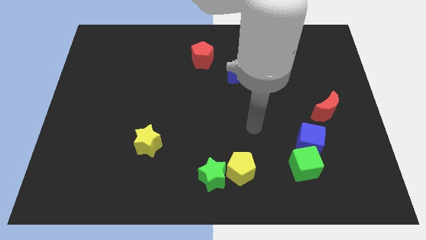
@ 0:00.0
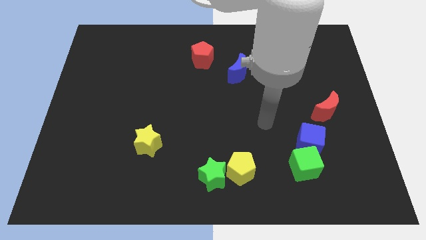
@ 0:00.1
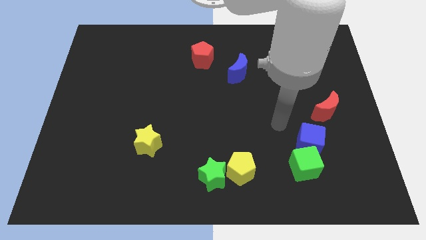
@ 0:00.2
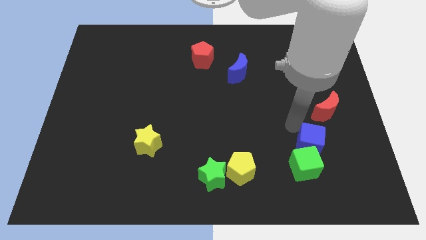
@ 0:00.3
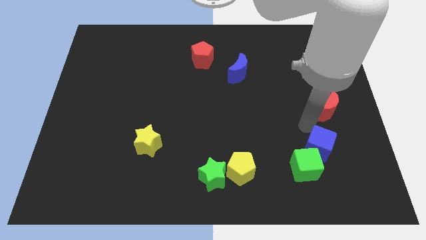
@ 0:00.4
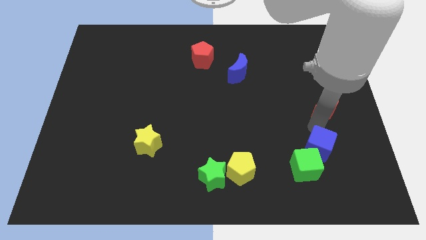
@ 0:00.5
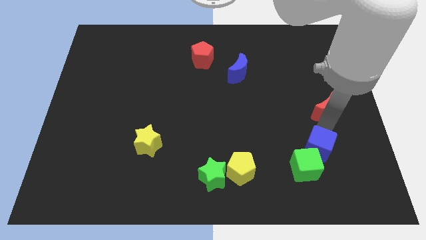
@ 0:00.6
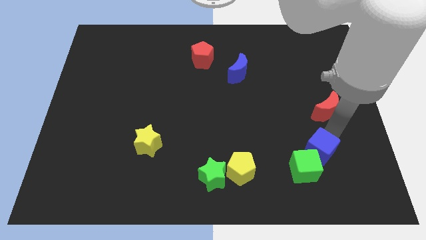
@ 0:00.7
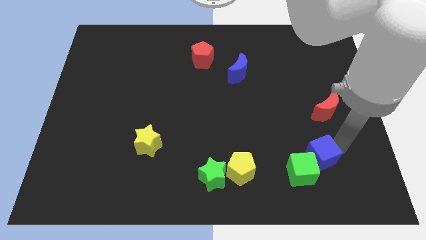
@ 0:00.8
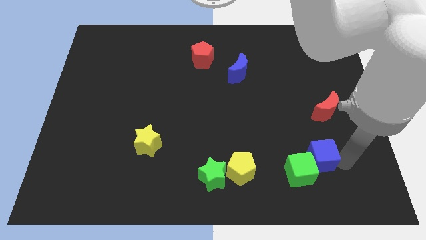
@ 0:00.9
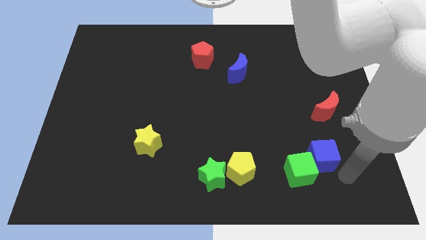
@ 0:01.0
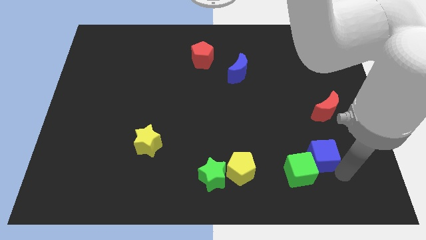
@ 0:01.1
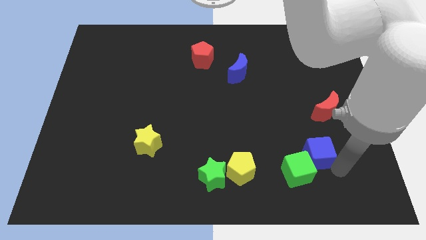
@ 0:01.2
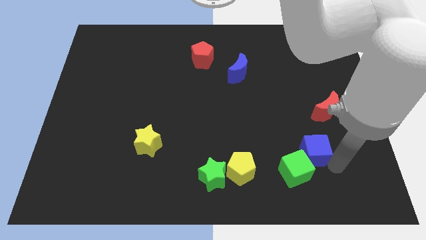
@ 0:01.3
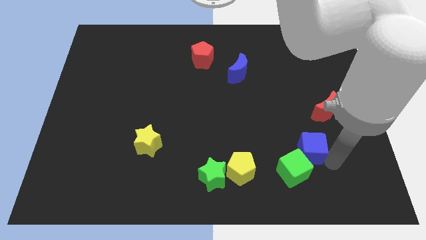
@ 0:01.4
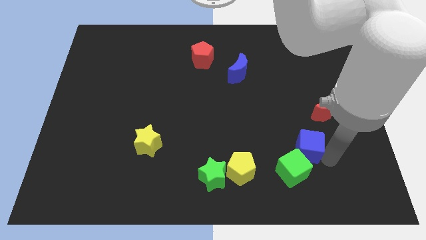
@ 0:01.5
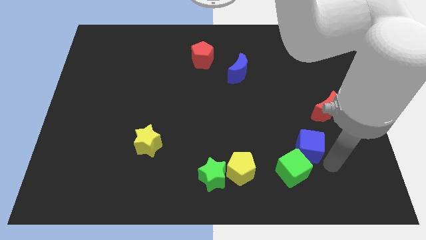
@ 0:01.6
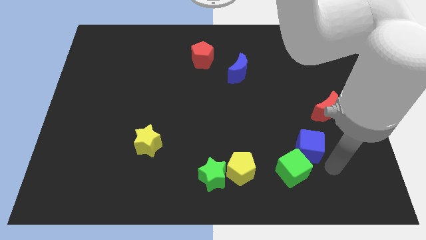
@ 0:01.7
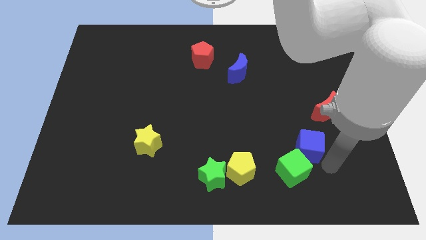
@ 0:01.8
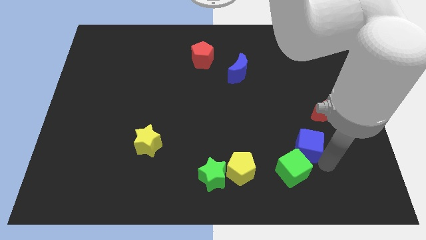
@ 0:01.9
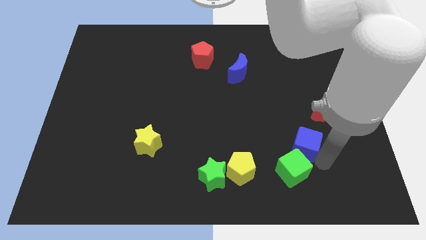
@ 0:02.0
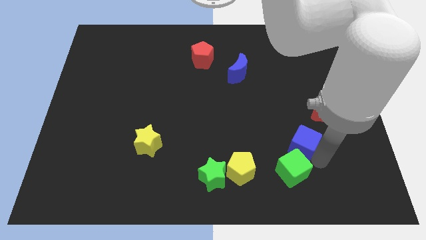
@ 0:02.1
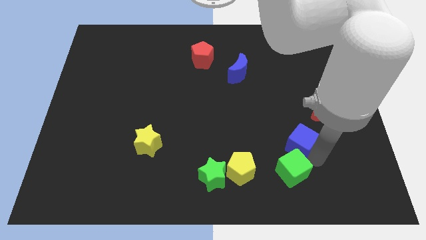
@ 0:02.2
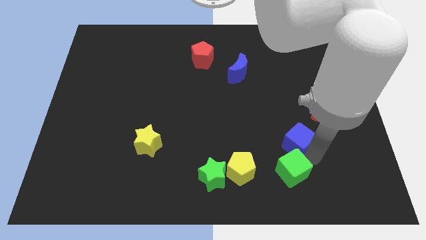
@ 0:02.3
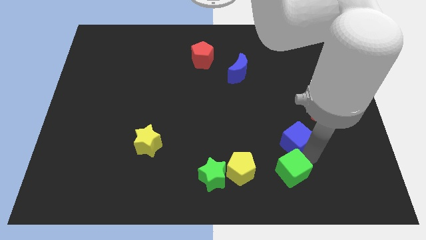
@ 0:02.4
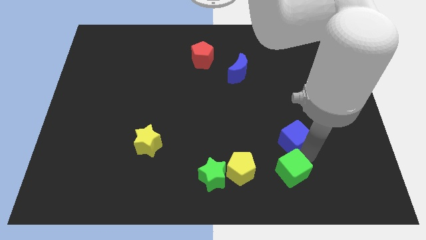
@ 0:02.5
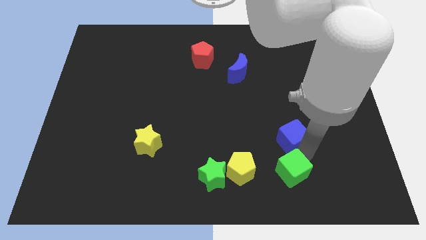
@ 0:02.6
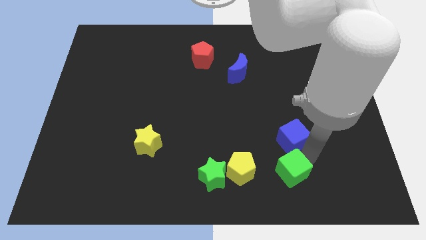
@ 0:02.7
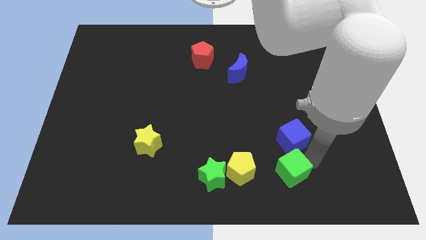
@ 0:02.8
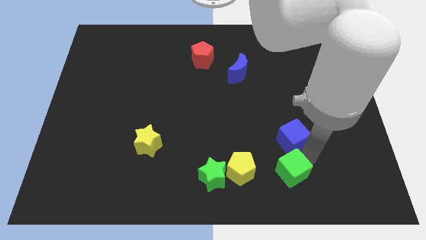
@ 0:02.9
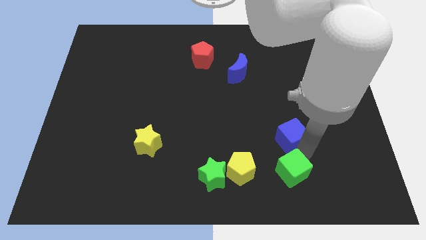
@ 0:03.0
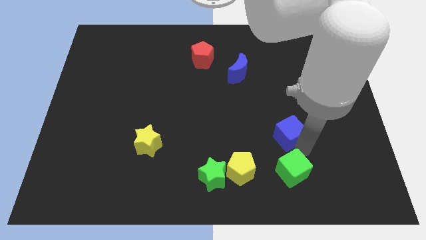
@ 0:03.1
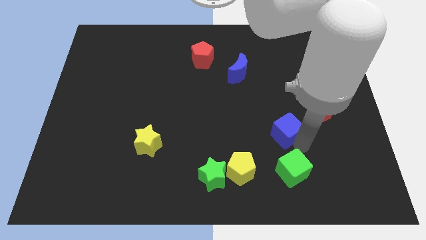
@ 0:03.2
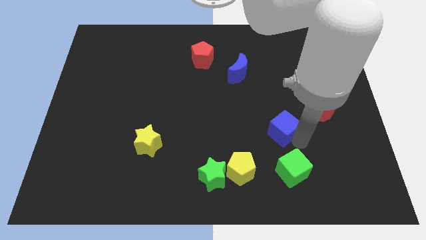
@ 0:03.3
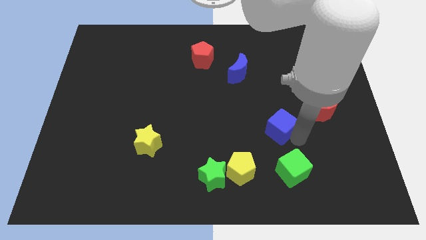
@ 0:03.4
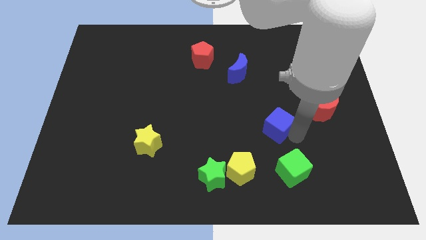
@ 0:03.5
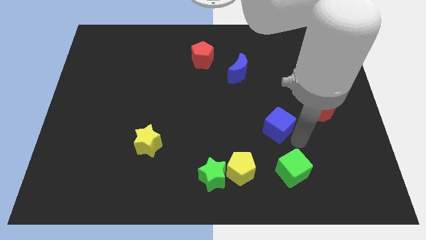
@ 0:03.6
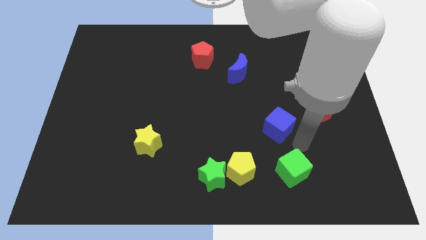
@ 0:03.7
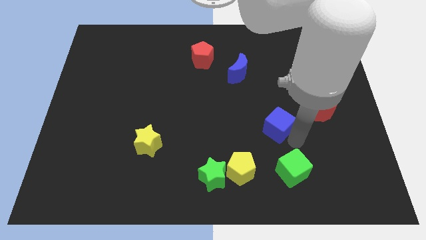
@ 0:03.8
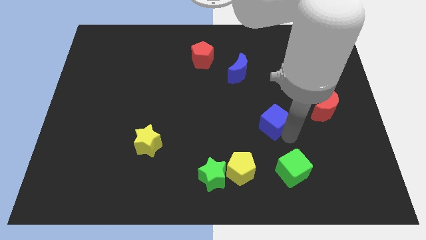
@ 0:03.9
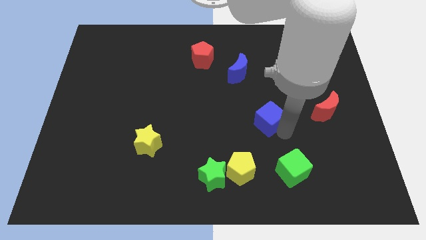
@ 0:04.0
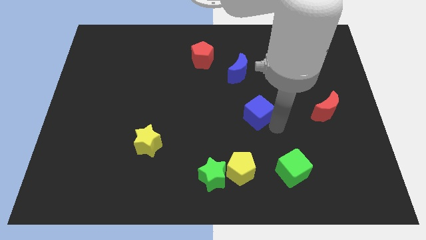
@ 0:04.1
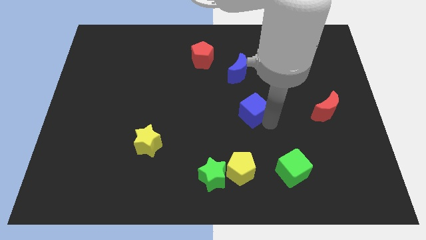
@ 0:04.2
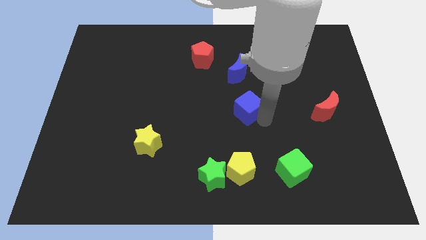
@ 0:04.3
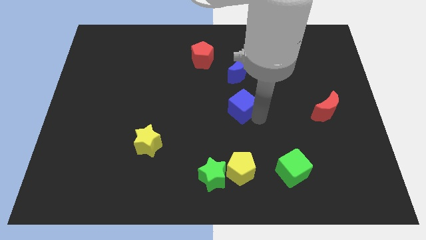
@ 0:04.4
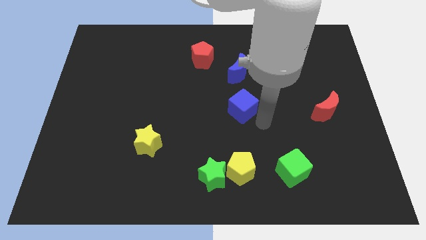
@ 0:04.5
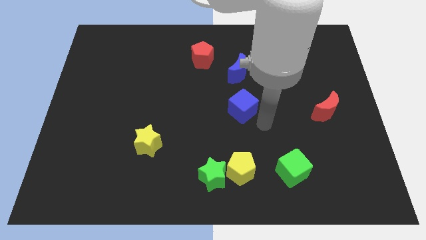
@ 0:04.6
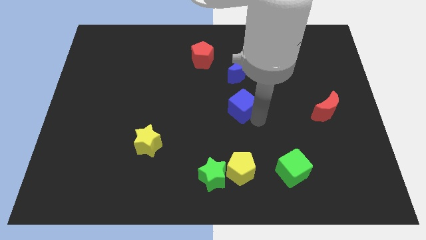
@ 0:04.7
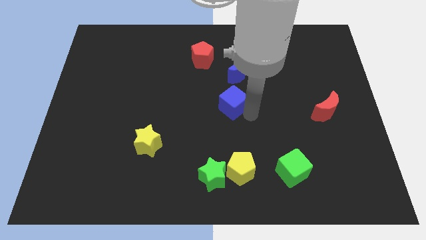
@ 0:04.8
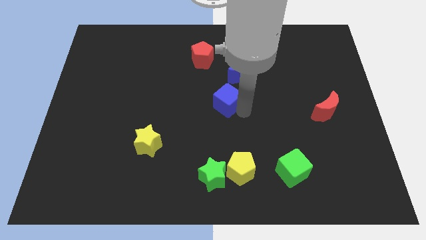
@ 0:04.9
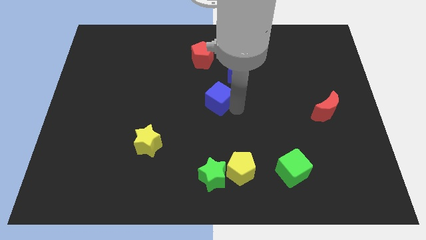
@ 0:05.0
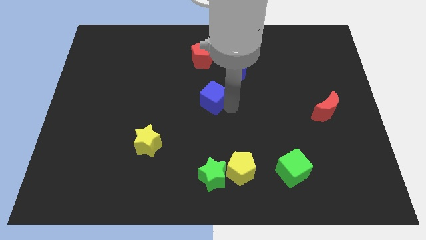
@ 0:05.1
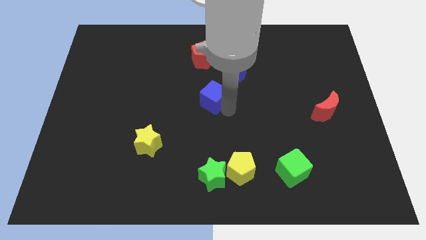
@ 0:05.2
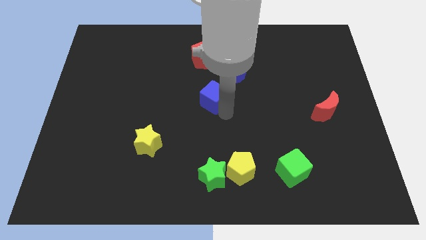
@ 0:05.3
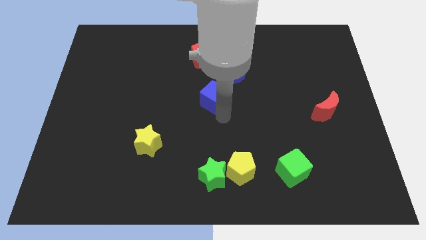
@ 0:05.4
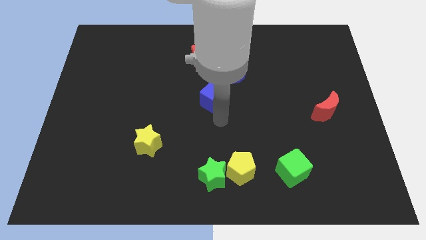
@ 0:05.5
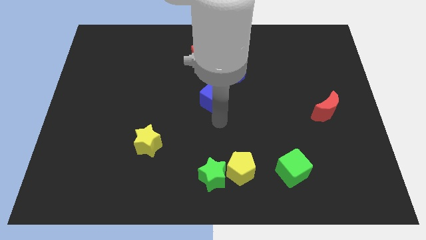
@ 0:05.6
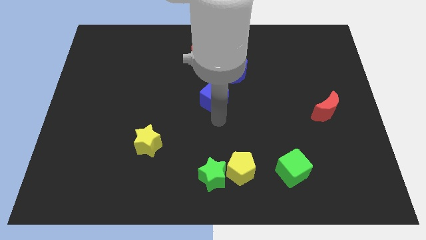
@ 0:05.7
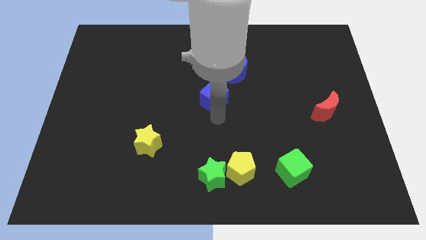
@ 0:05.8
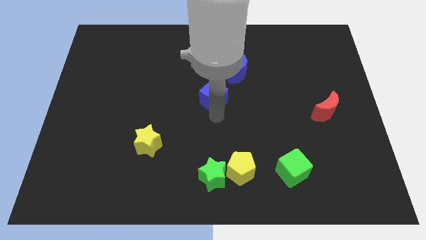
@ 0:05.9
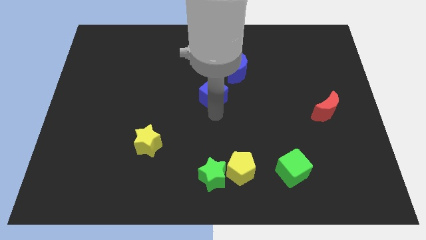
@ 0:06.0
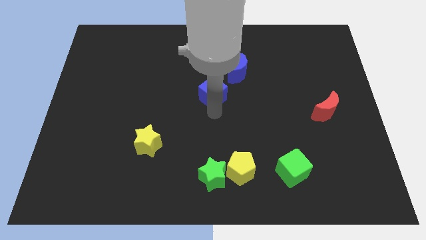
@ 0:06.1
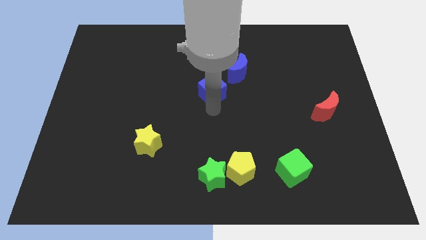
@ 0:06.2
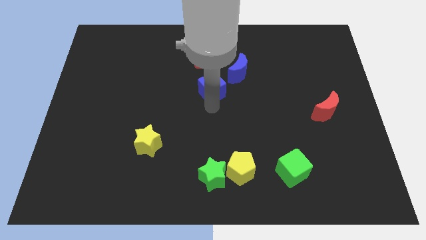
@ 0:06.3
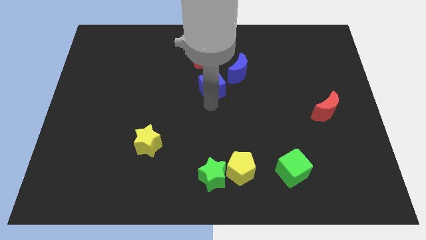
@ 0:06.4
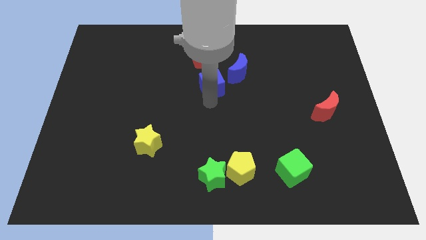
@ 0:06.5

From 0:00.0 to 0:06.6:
put the blue cube left of the blue moon

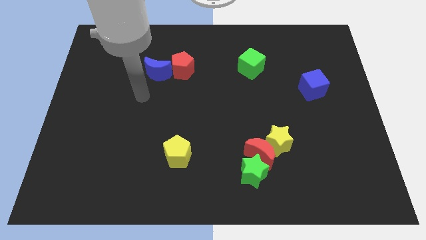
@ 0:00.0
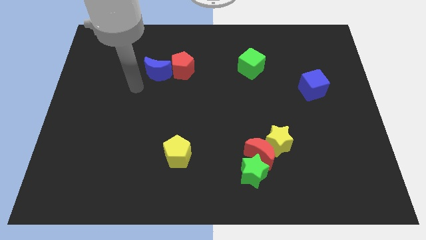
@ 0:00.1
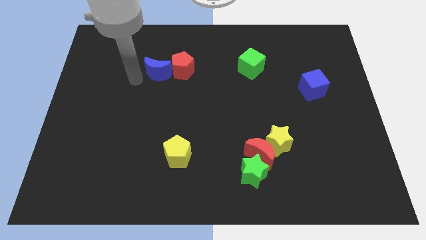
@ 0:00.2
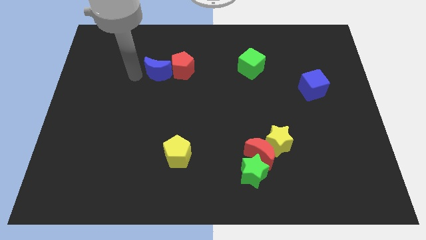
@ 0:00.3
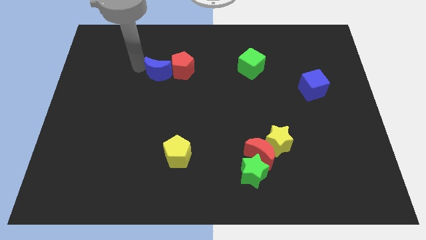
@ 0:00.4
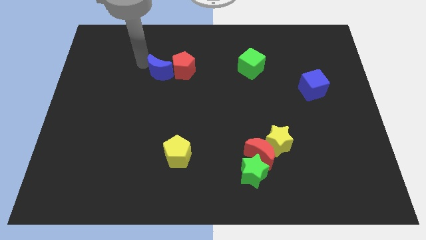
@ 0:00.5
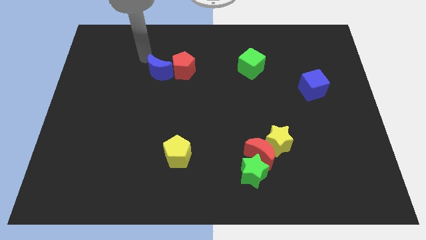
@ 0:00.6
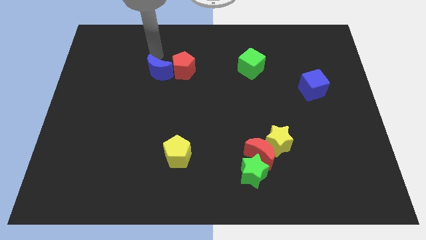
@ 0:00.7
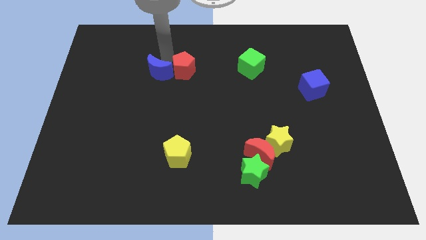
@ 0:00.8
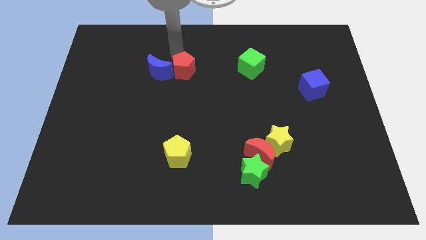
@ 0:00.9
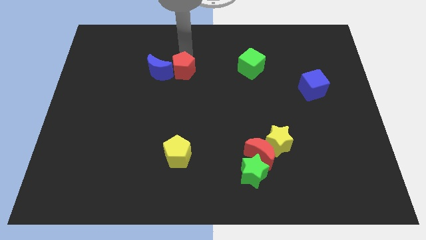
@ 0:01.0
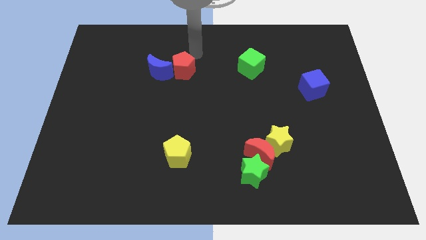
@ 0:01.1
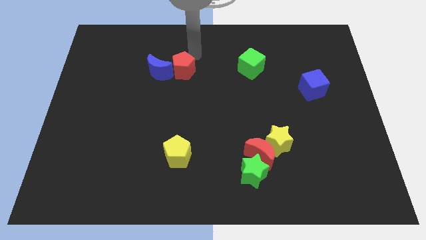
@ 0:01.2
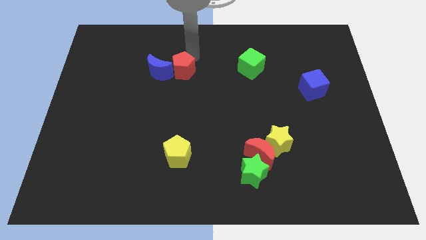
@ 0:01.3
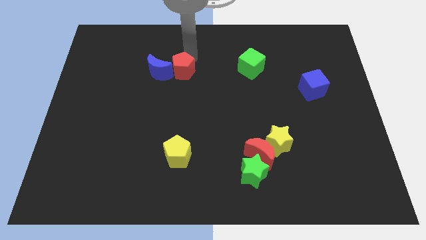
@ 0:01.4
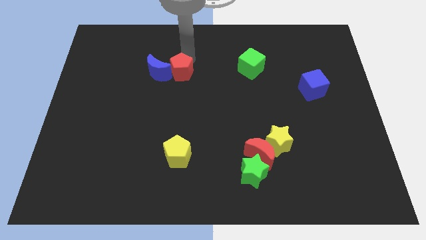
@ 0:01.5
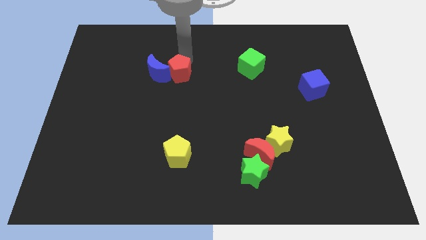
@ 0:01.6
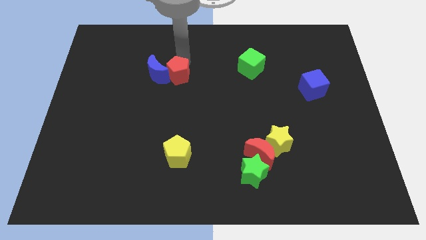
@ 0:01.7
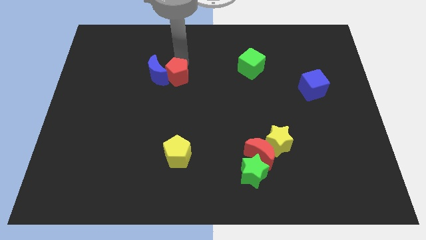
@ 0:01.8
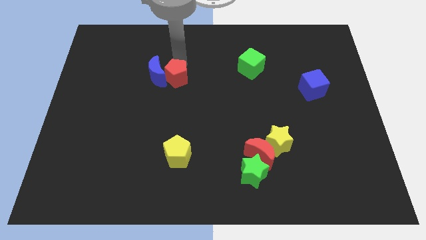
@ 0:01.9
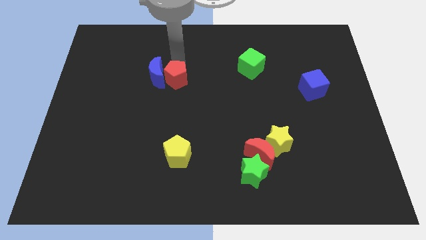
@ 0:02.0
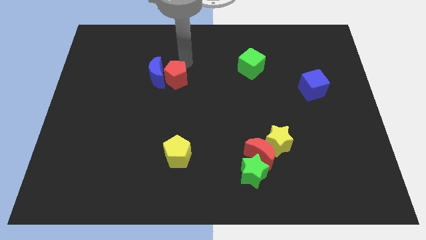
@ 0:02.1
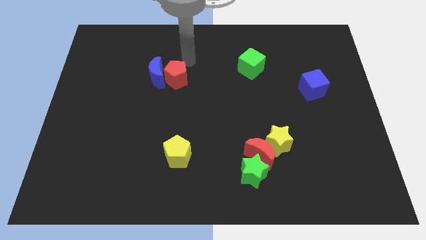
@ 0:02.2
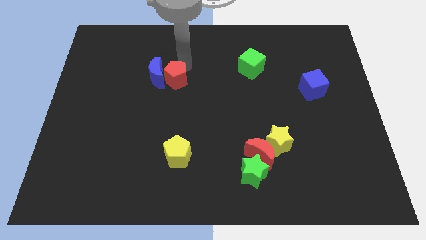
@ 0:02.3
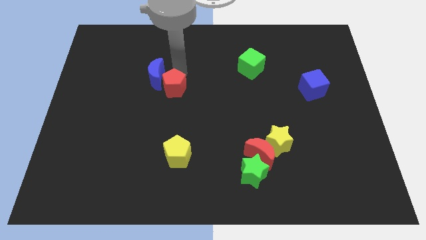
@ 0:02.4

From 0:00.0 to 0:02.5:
move the red pentagon to the bottom of the blue moon
